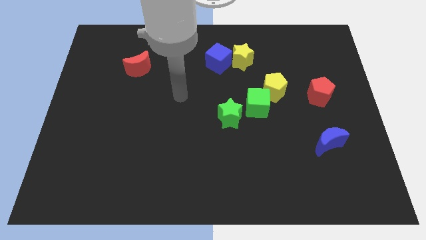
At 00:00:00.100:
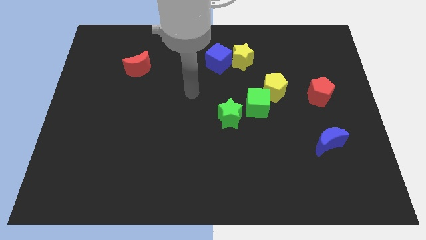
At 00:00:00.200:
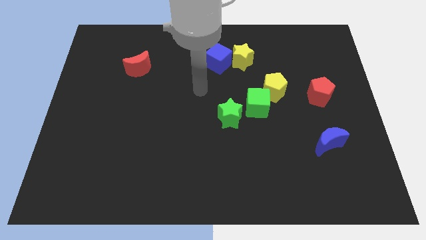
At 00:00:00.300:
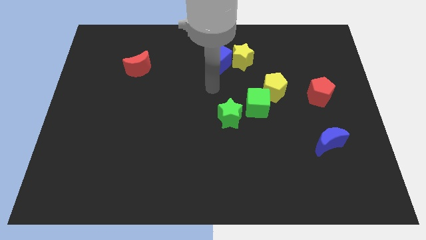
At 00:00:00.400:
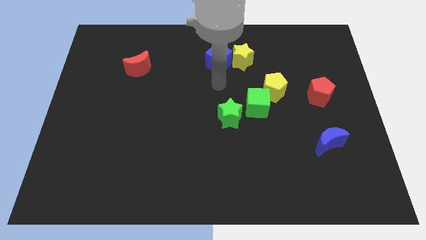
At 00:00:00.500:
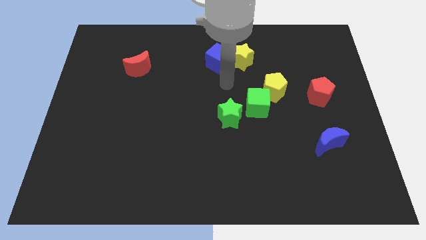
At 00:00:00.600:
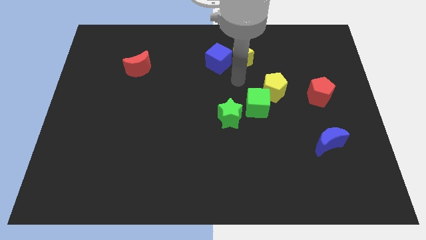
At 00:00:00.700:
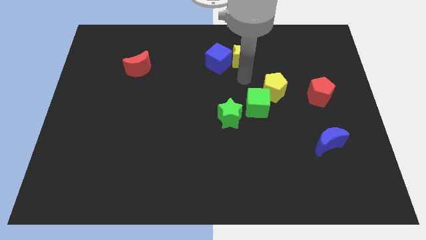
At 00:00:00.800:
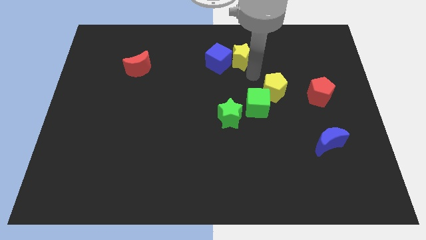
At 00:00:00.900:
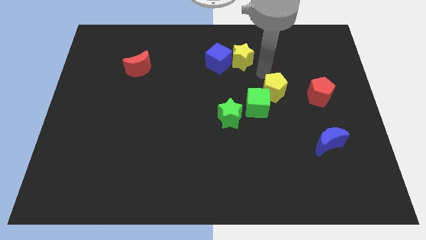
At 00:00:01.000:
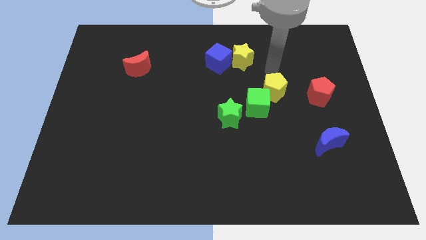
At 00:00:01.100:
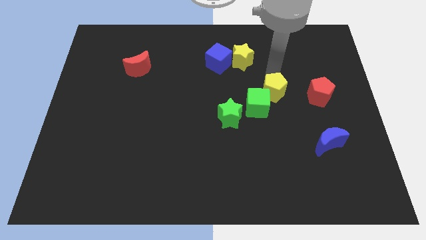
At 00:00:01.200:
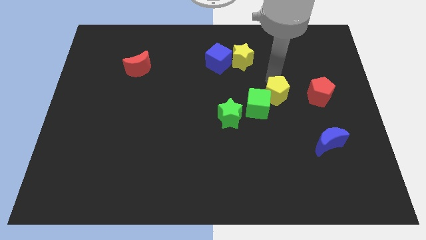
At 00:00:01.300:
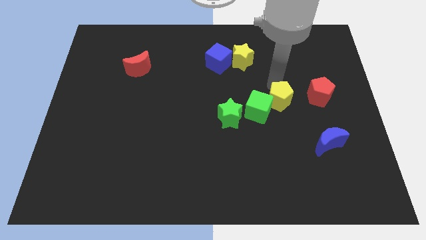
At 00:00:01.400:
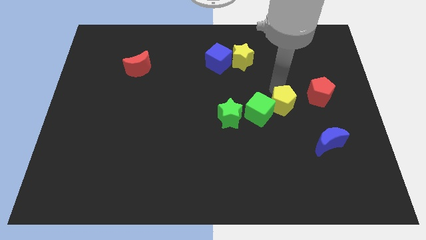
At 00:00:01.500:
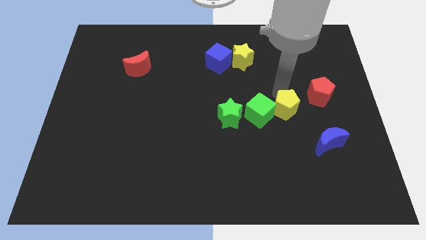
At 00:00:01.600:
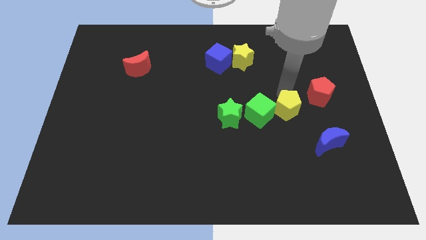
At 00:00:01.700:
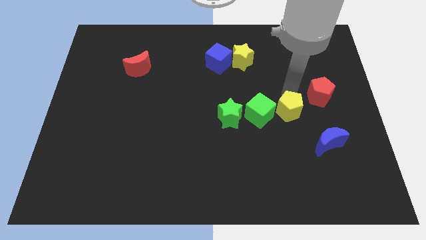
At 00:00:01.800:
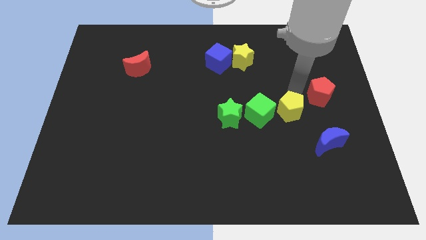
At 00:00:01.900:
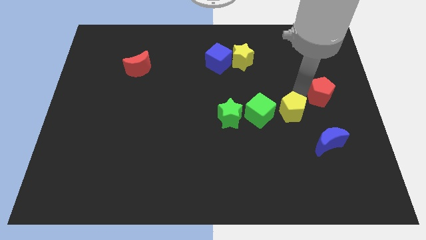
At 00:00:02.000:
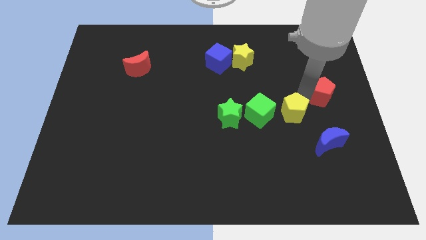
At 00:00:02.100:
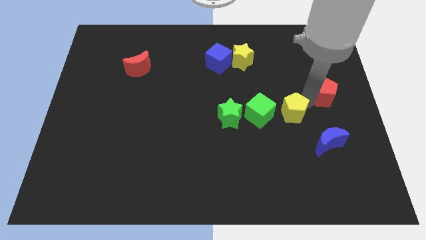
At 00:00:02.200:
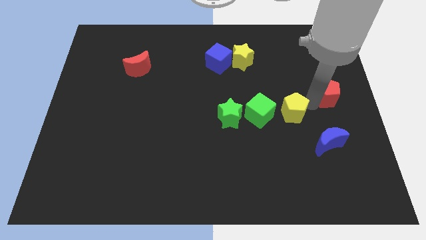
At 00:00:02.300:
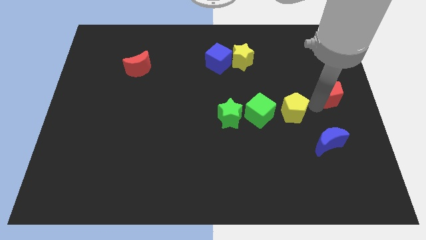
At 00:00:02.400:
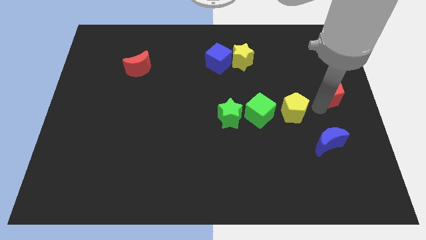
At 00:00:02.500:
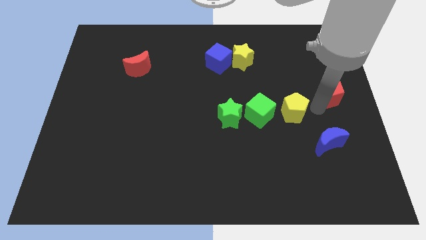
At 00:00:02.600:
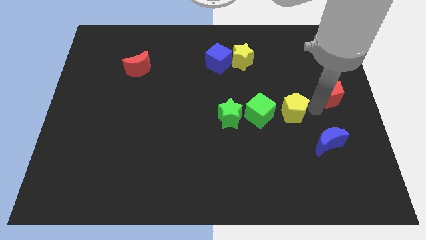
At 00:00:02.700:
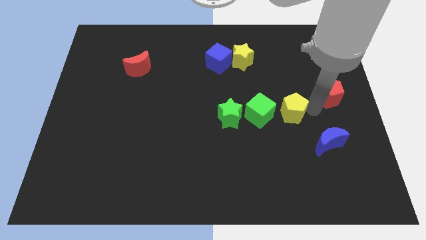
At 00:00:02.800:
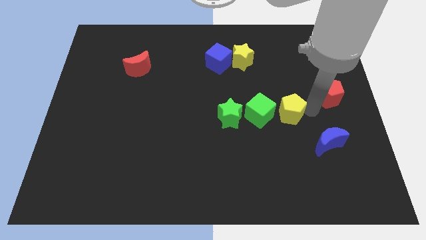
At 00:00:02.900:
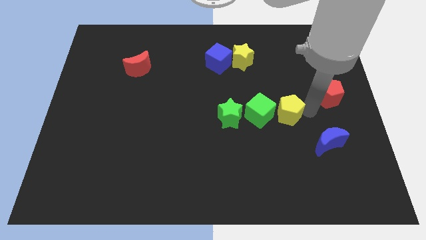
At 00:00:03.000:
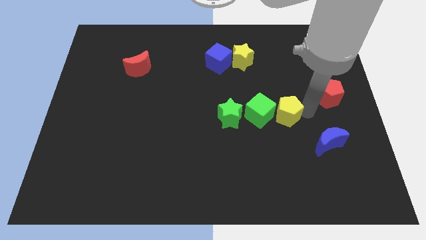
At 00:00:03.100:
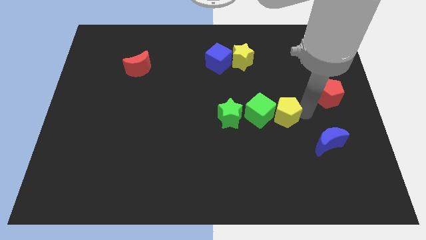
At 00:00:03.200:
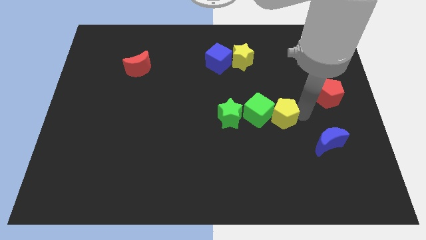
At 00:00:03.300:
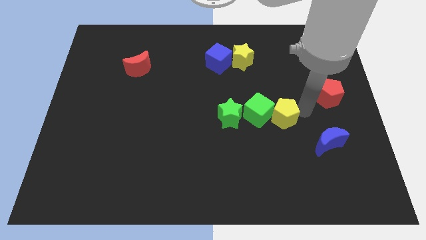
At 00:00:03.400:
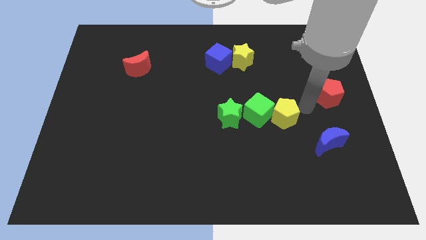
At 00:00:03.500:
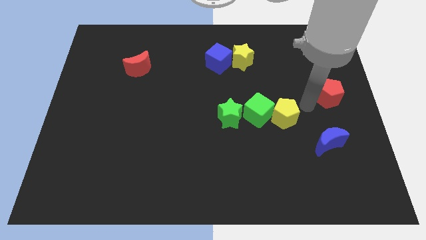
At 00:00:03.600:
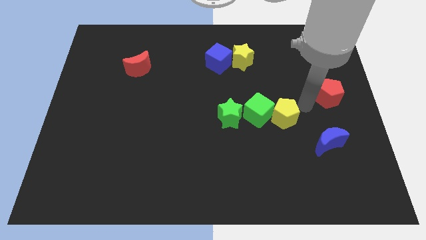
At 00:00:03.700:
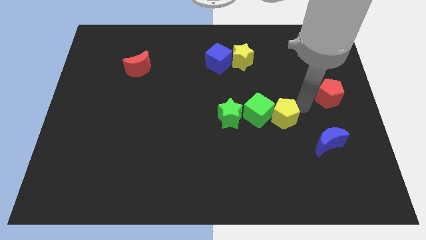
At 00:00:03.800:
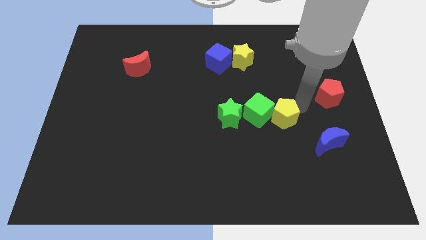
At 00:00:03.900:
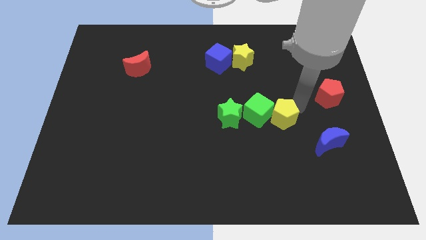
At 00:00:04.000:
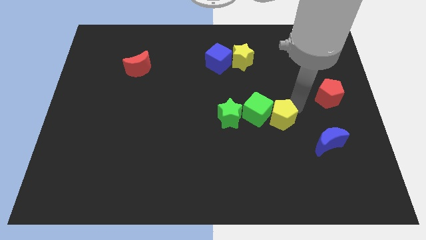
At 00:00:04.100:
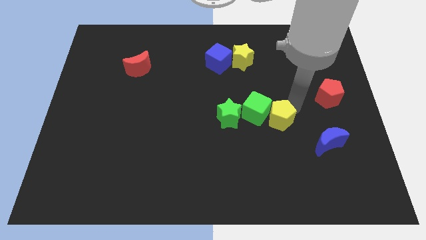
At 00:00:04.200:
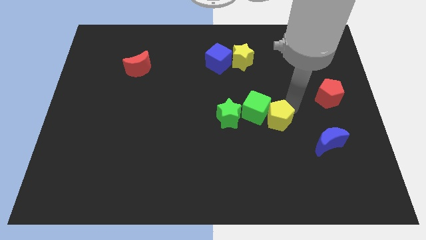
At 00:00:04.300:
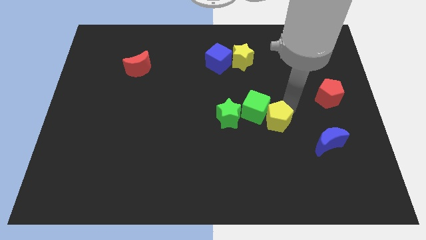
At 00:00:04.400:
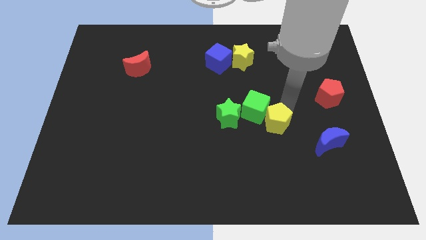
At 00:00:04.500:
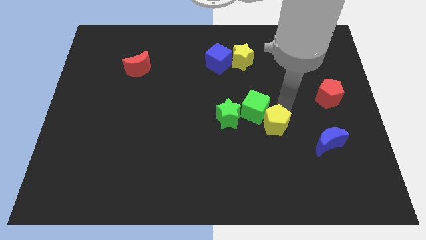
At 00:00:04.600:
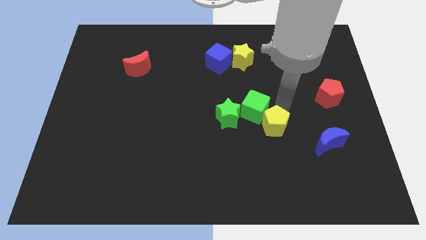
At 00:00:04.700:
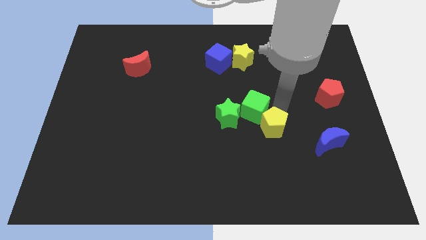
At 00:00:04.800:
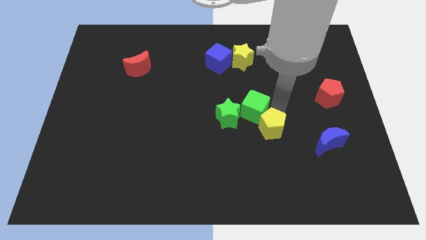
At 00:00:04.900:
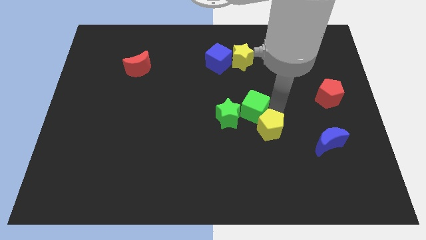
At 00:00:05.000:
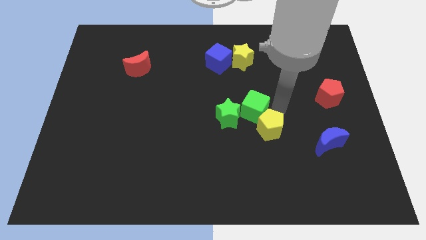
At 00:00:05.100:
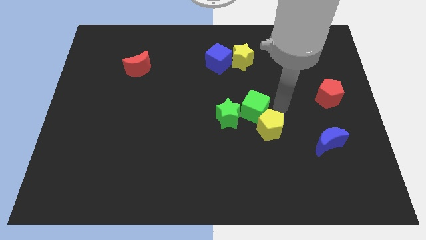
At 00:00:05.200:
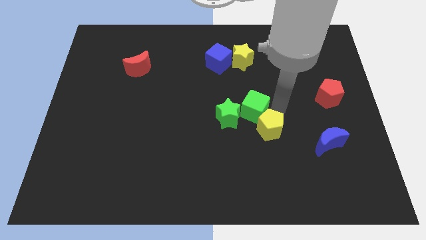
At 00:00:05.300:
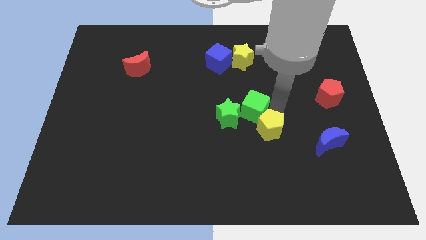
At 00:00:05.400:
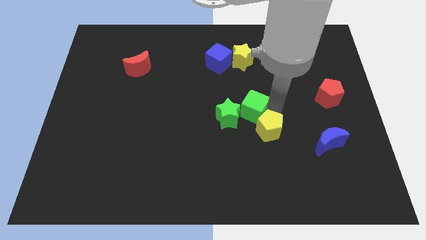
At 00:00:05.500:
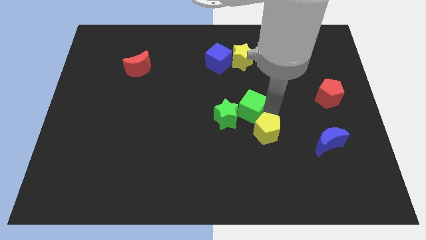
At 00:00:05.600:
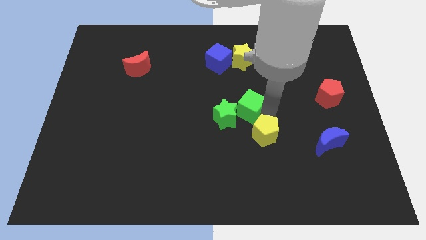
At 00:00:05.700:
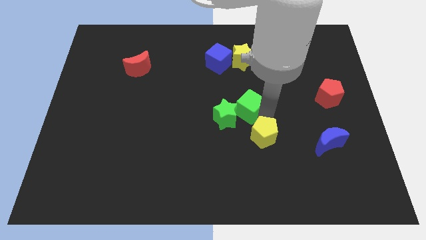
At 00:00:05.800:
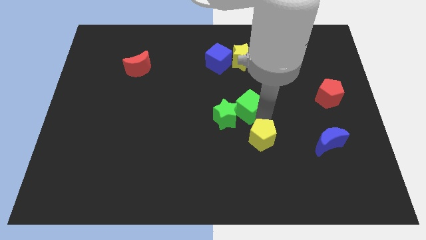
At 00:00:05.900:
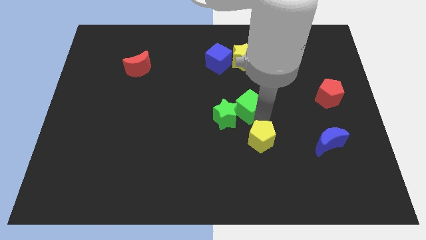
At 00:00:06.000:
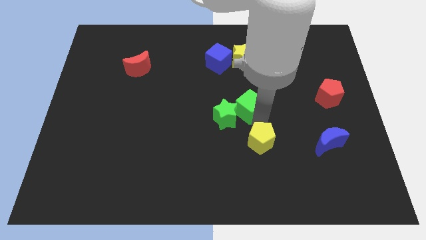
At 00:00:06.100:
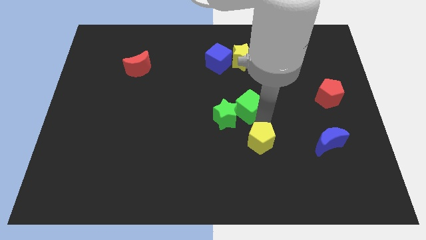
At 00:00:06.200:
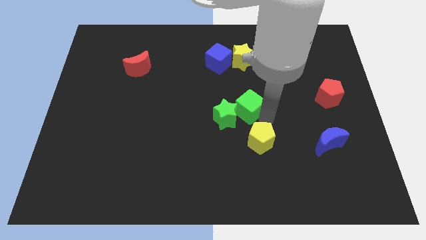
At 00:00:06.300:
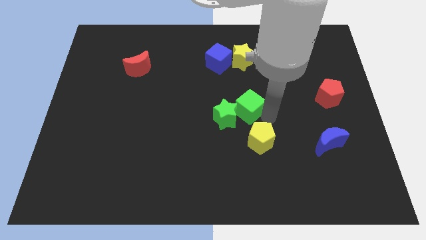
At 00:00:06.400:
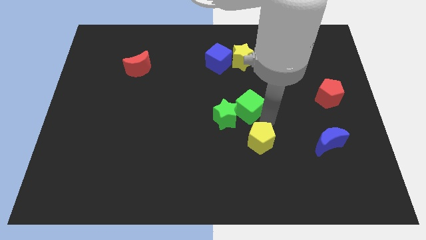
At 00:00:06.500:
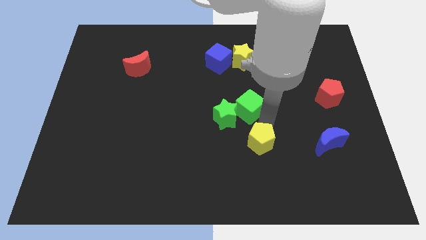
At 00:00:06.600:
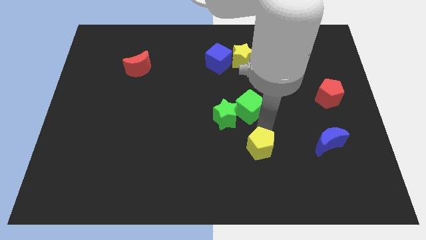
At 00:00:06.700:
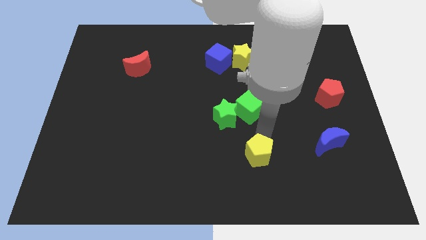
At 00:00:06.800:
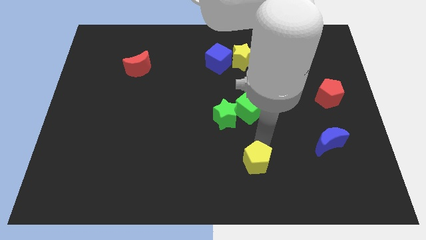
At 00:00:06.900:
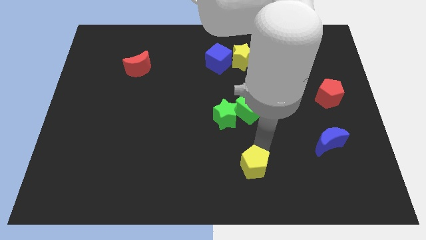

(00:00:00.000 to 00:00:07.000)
move the yellow pentagon to the bottom
